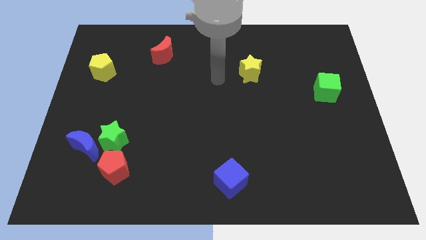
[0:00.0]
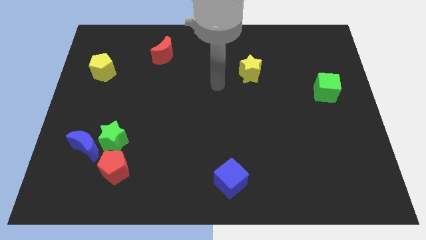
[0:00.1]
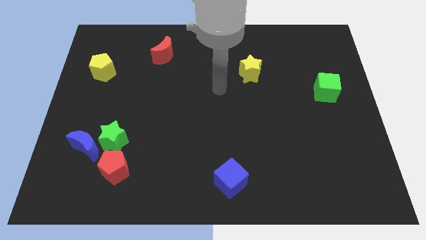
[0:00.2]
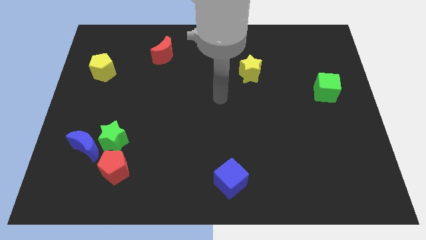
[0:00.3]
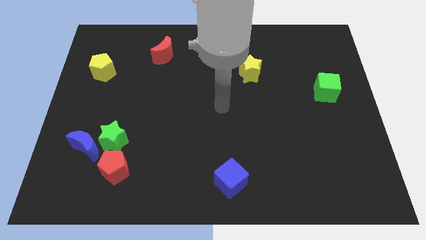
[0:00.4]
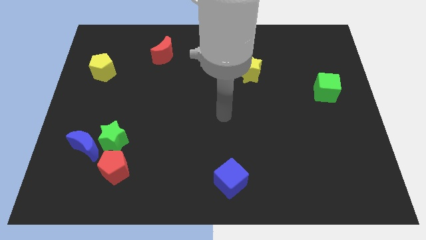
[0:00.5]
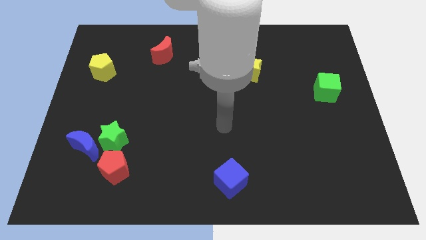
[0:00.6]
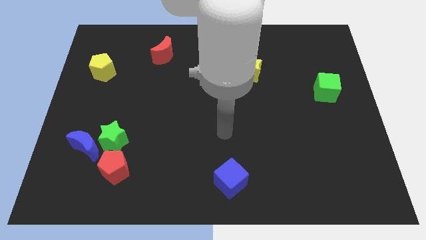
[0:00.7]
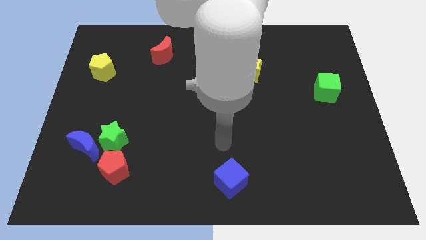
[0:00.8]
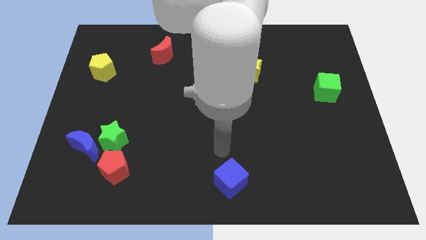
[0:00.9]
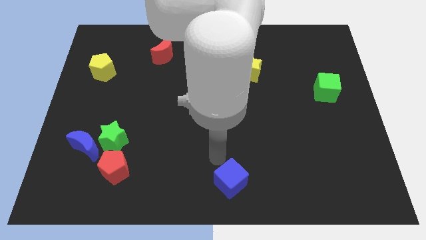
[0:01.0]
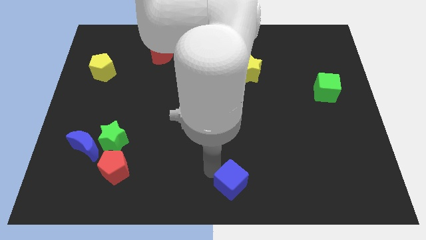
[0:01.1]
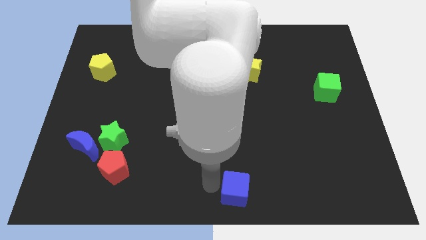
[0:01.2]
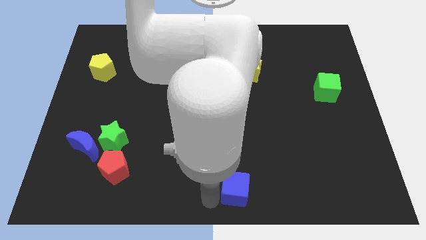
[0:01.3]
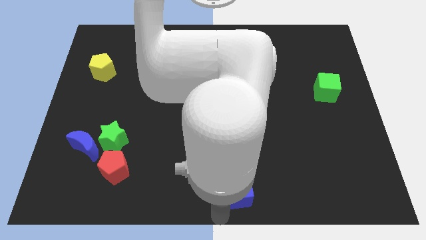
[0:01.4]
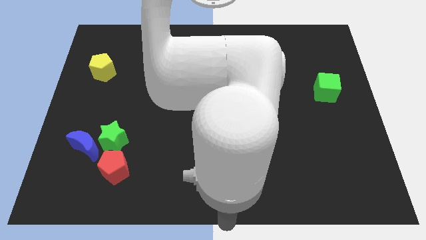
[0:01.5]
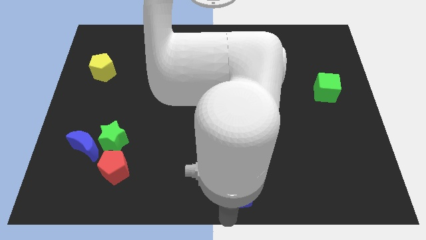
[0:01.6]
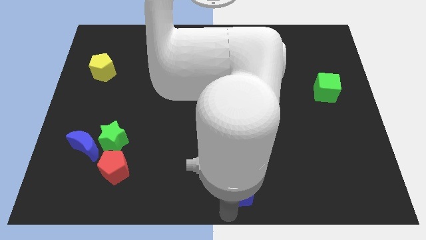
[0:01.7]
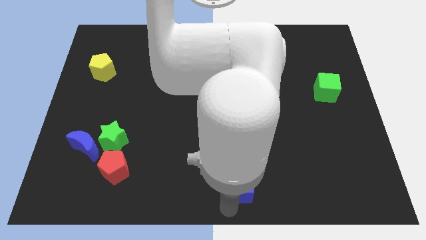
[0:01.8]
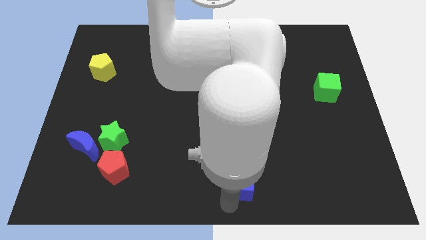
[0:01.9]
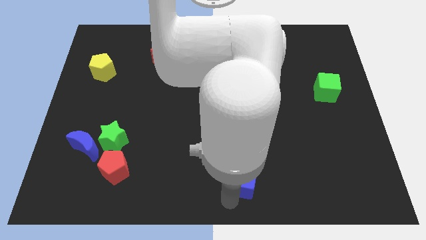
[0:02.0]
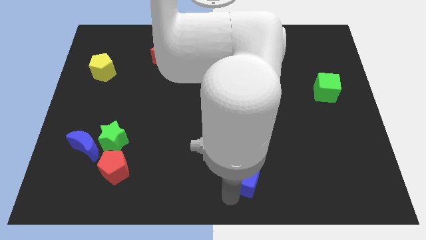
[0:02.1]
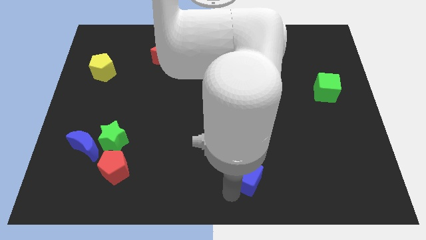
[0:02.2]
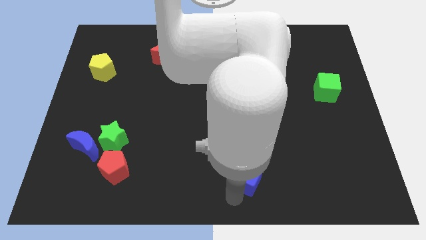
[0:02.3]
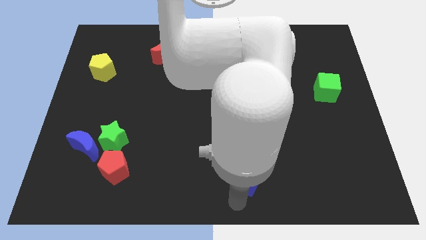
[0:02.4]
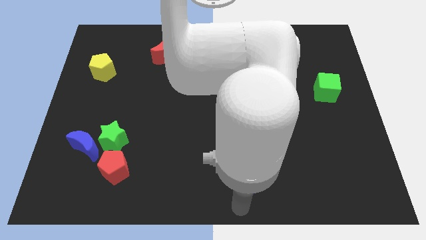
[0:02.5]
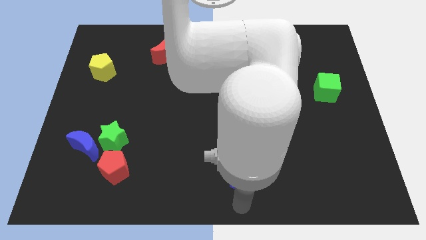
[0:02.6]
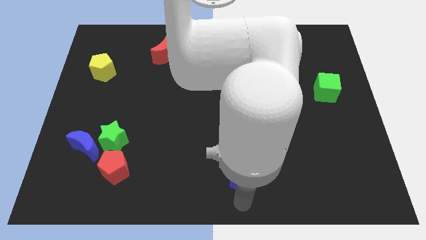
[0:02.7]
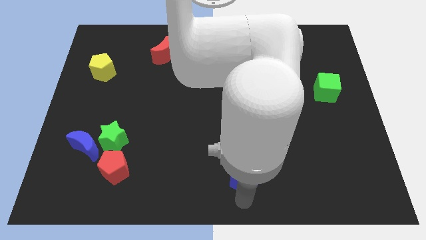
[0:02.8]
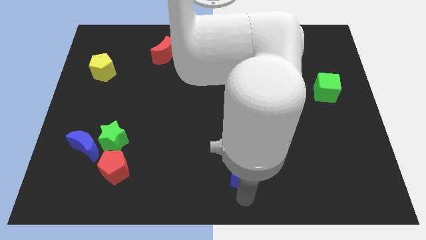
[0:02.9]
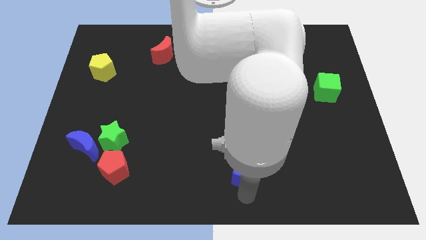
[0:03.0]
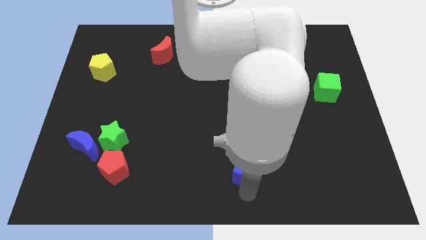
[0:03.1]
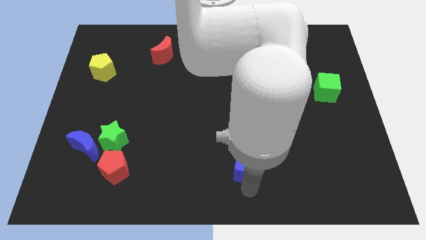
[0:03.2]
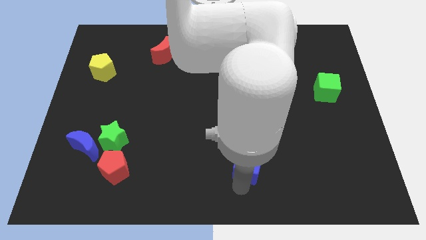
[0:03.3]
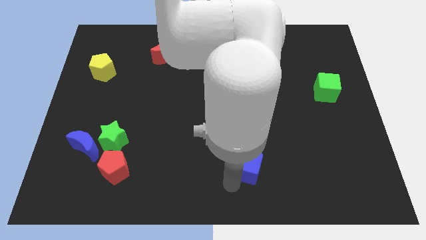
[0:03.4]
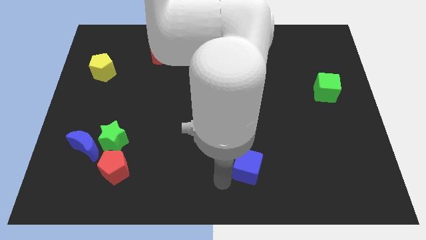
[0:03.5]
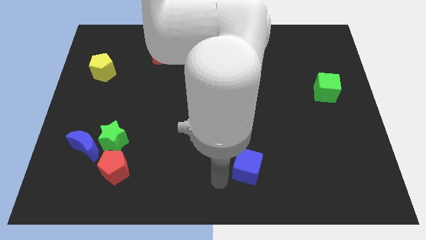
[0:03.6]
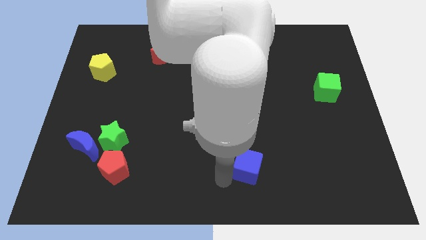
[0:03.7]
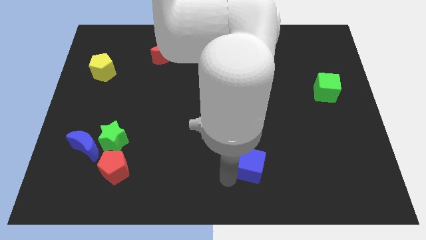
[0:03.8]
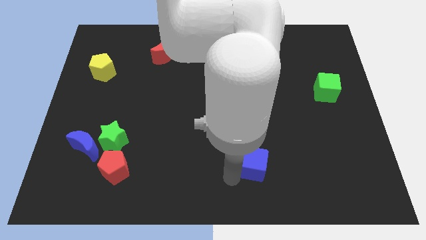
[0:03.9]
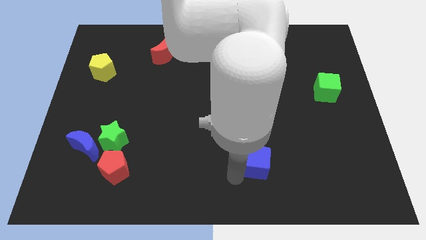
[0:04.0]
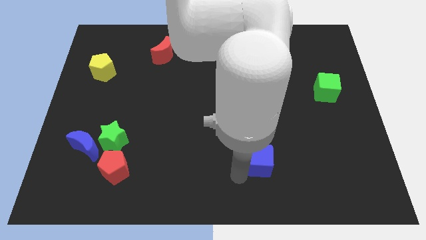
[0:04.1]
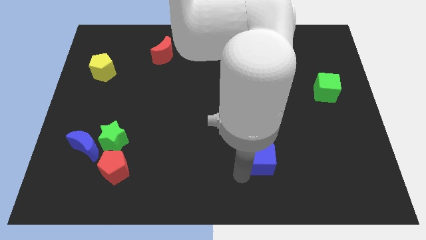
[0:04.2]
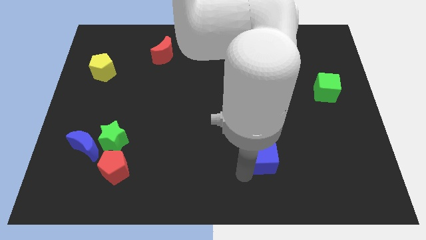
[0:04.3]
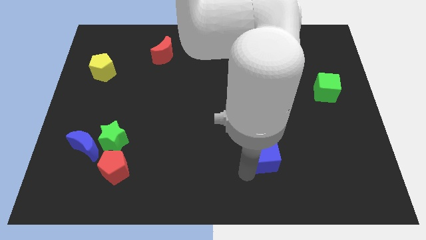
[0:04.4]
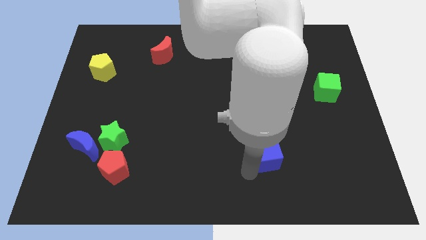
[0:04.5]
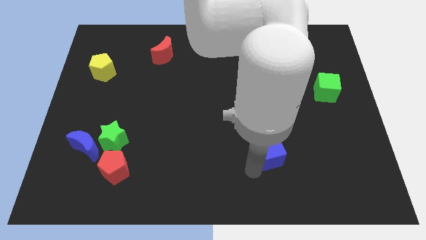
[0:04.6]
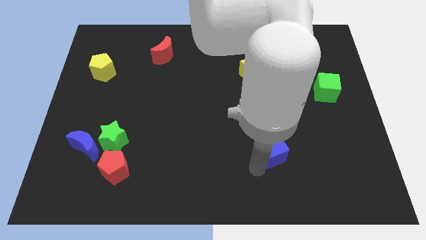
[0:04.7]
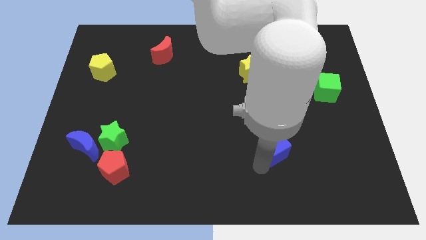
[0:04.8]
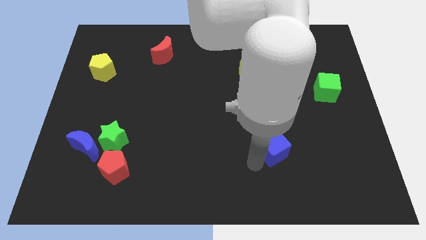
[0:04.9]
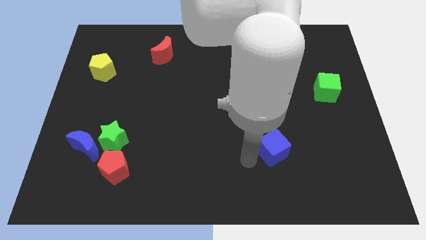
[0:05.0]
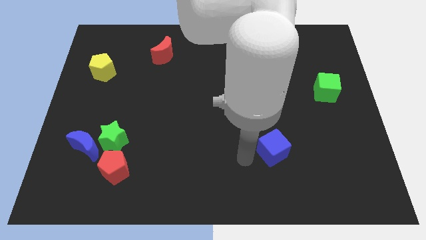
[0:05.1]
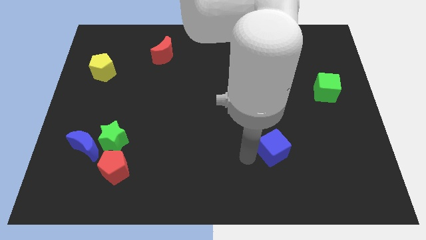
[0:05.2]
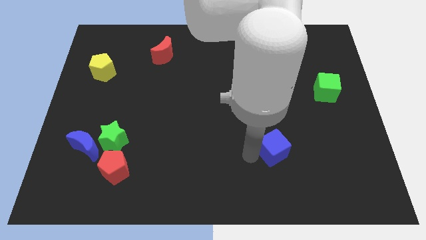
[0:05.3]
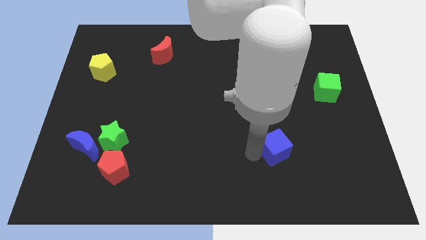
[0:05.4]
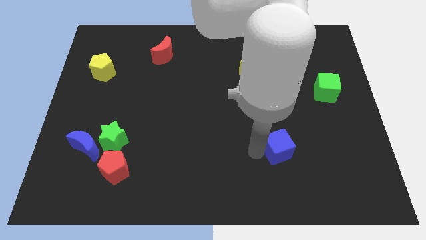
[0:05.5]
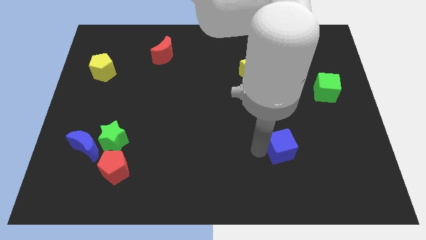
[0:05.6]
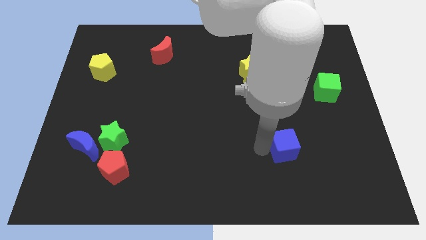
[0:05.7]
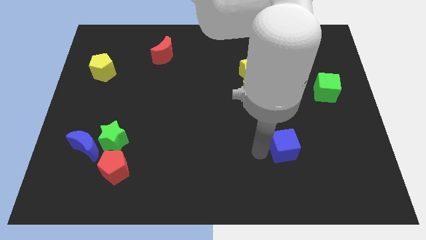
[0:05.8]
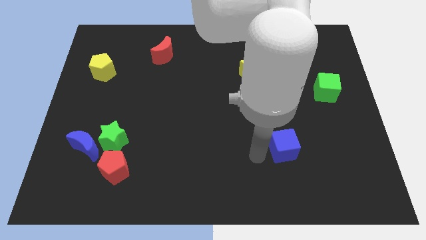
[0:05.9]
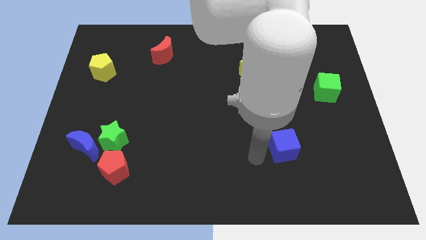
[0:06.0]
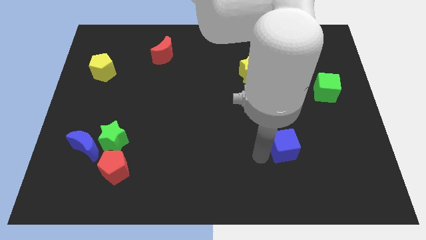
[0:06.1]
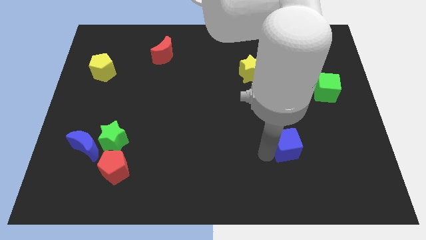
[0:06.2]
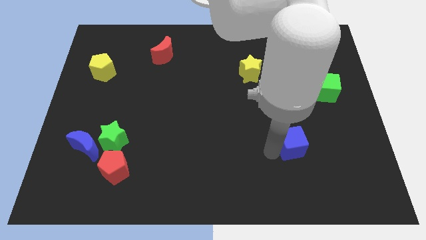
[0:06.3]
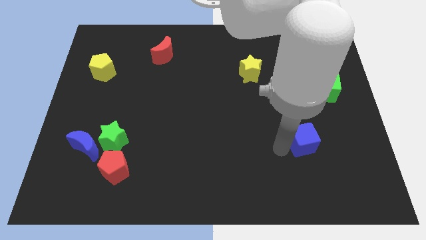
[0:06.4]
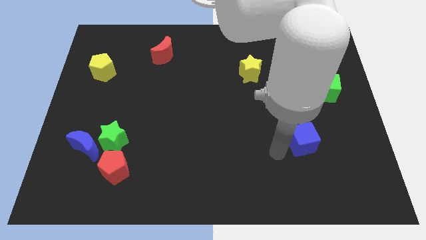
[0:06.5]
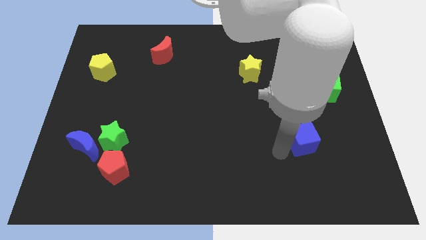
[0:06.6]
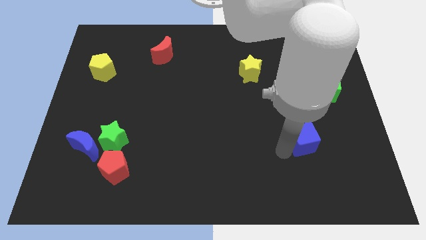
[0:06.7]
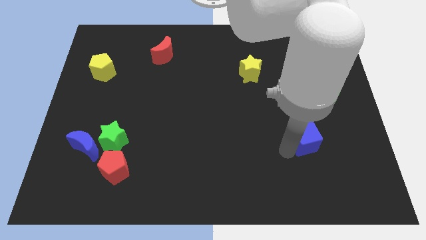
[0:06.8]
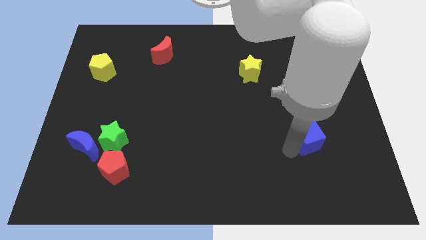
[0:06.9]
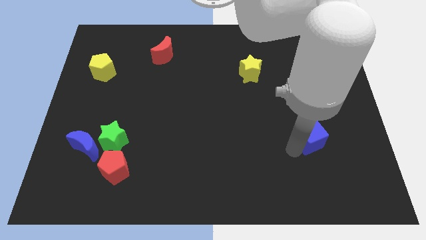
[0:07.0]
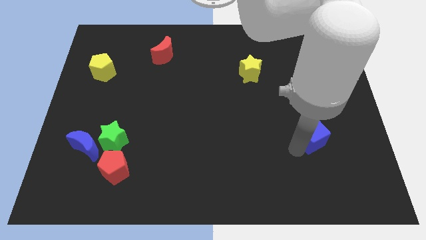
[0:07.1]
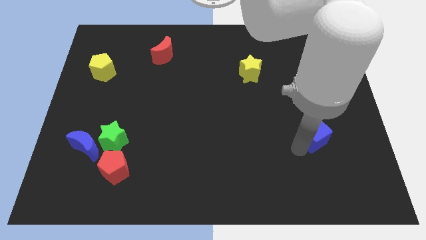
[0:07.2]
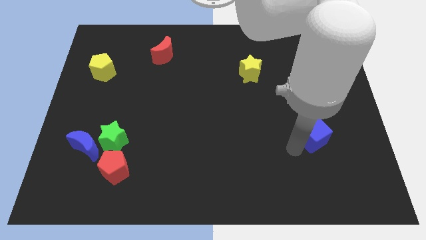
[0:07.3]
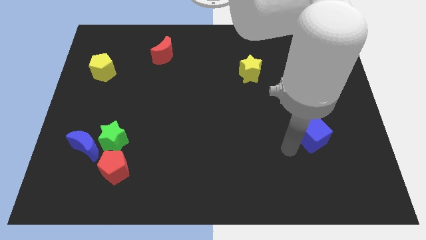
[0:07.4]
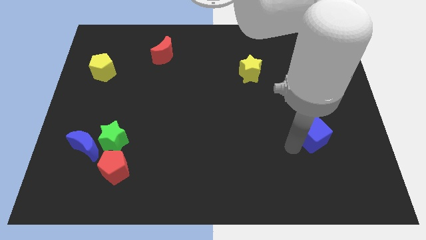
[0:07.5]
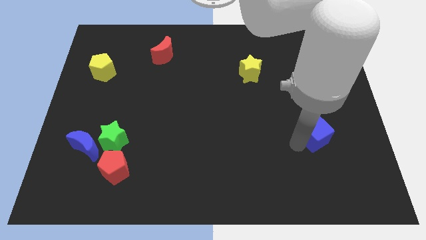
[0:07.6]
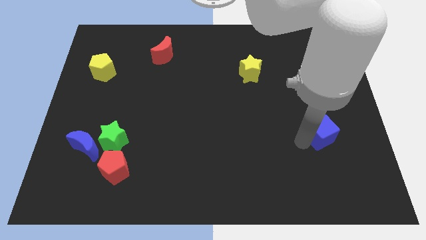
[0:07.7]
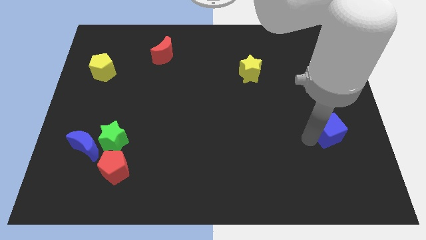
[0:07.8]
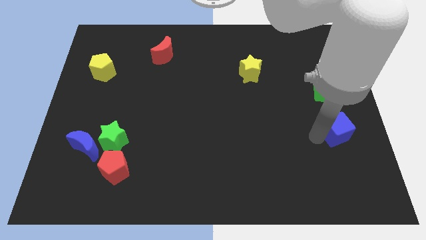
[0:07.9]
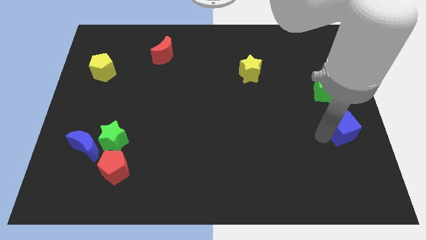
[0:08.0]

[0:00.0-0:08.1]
slide the blue cube to the center right
